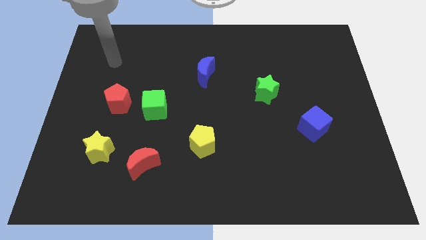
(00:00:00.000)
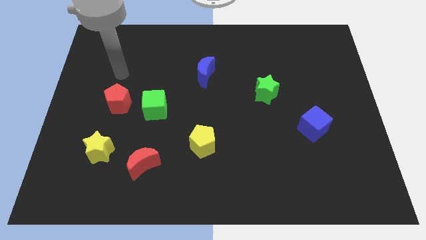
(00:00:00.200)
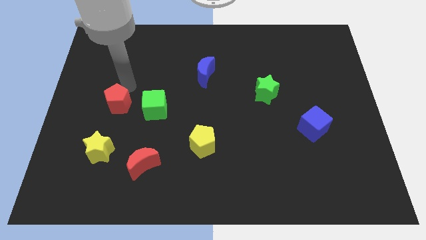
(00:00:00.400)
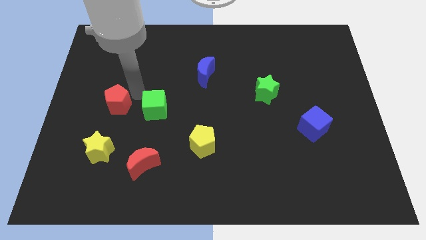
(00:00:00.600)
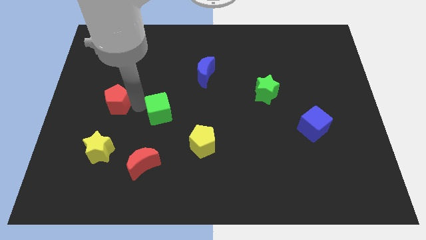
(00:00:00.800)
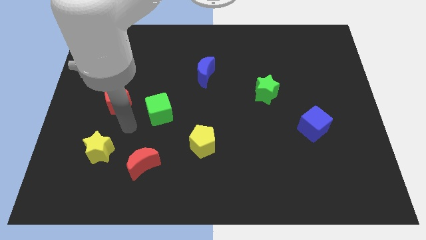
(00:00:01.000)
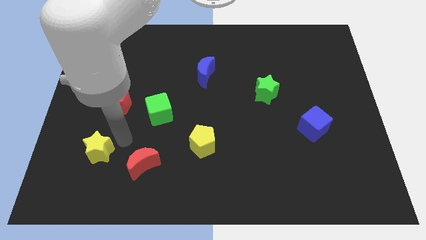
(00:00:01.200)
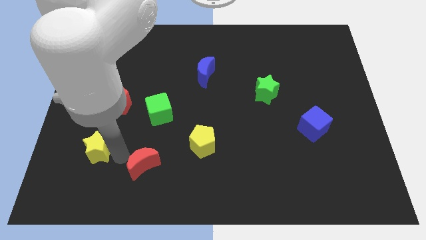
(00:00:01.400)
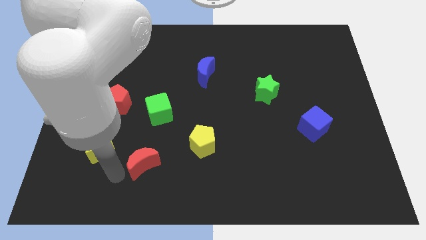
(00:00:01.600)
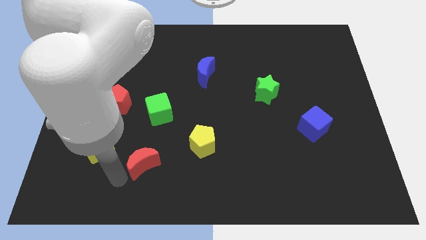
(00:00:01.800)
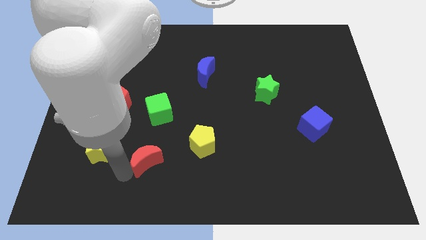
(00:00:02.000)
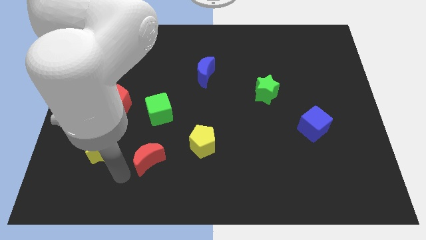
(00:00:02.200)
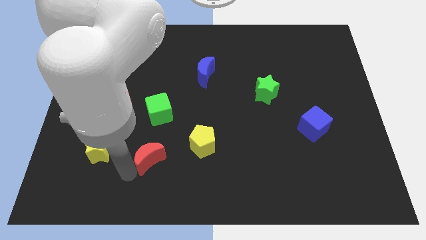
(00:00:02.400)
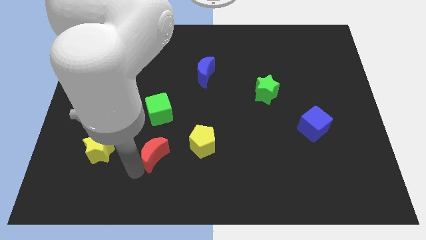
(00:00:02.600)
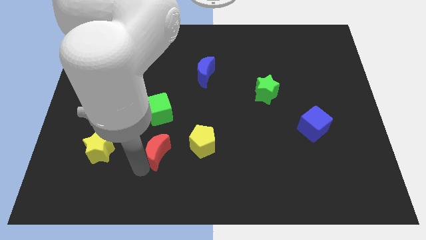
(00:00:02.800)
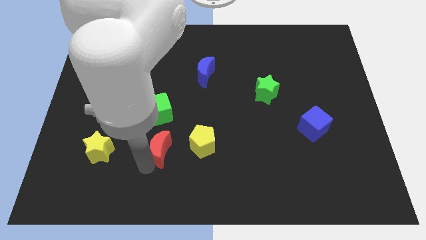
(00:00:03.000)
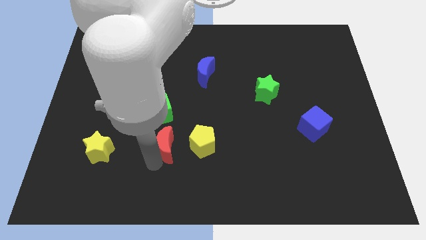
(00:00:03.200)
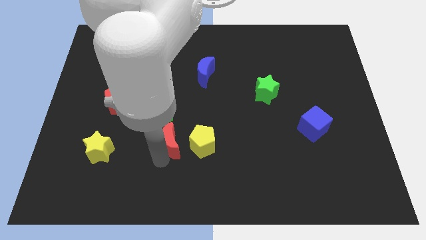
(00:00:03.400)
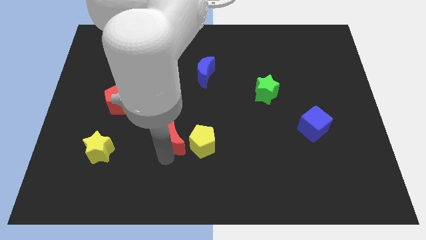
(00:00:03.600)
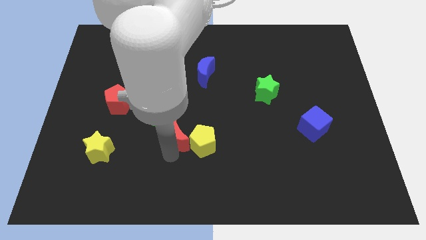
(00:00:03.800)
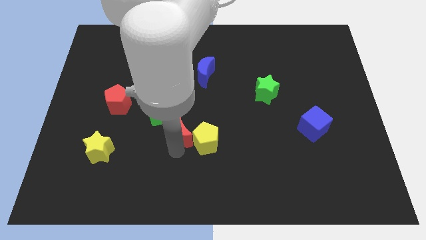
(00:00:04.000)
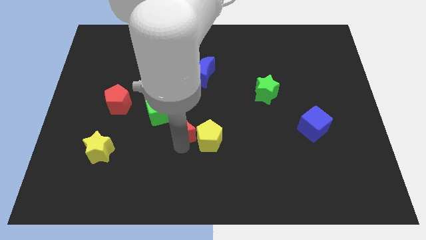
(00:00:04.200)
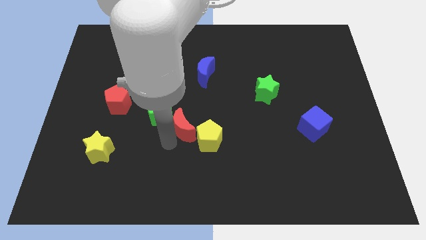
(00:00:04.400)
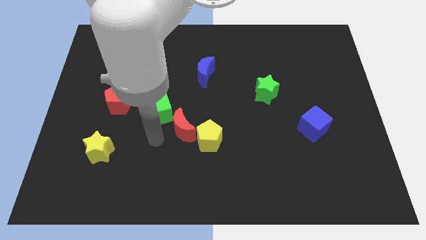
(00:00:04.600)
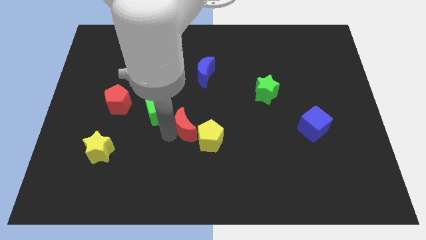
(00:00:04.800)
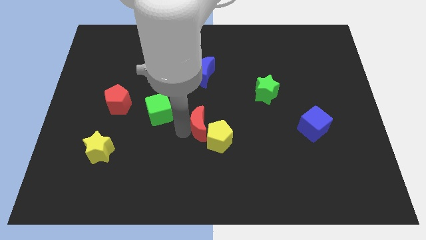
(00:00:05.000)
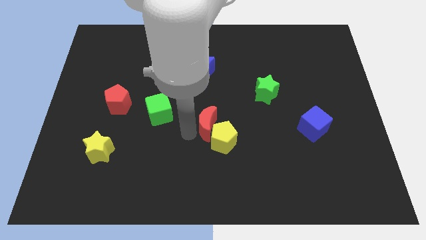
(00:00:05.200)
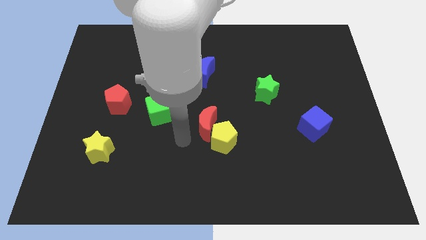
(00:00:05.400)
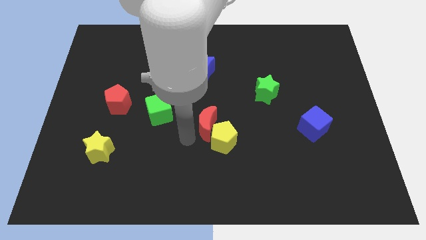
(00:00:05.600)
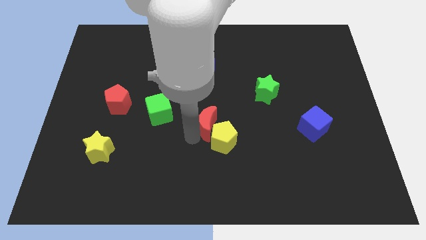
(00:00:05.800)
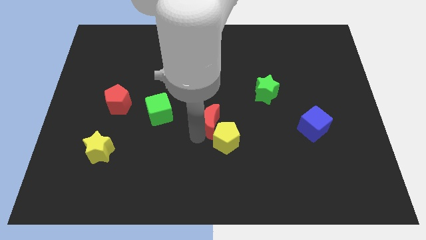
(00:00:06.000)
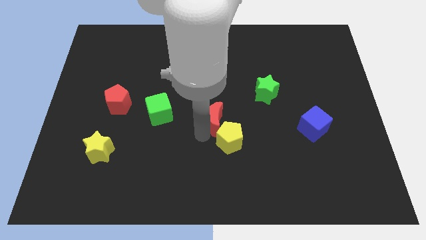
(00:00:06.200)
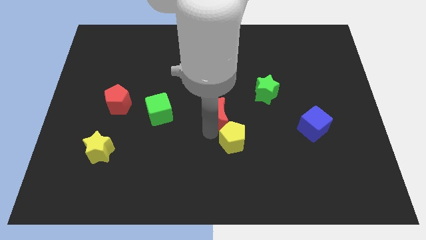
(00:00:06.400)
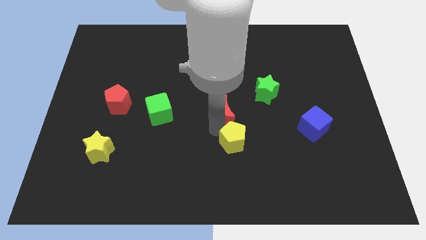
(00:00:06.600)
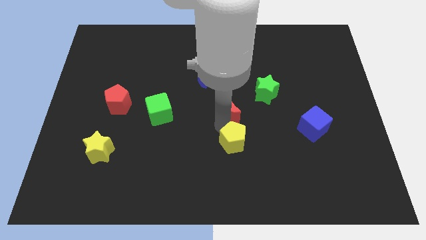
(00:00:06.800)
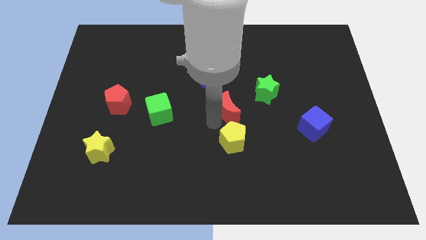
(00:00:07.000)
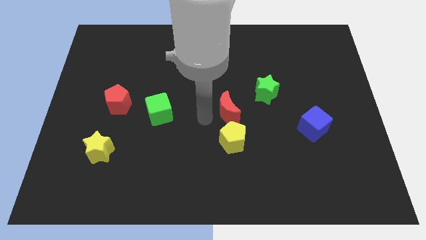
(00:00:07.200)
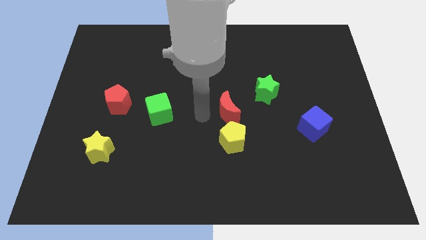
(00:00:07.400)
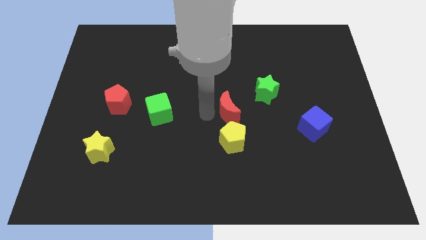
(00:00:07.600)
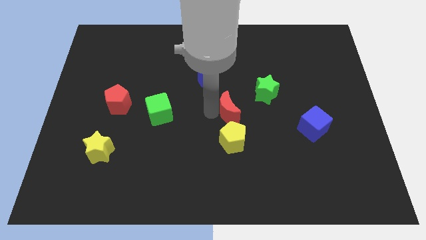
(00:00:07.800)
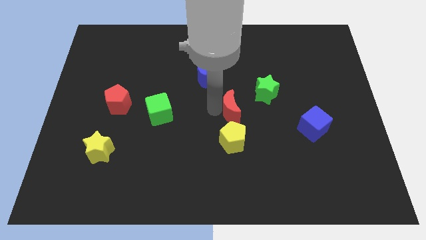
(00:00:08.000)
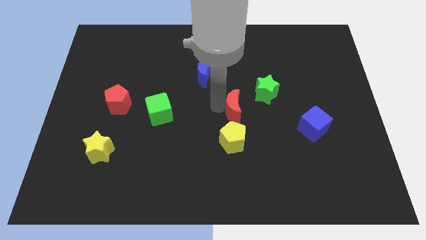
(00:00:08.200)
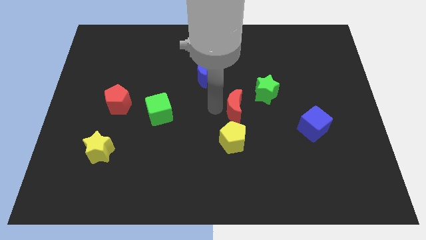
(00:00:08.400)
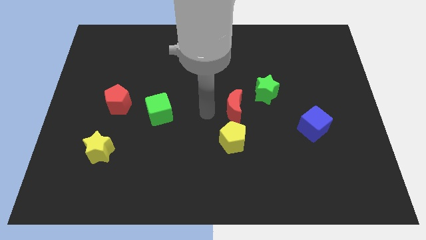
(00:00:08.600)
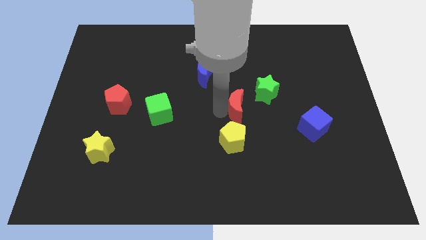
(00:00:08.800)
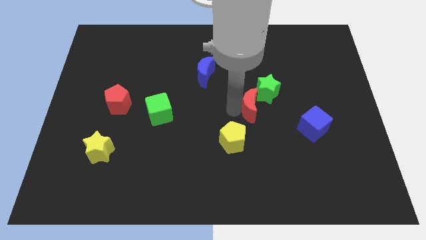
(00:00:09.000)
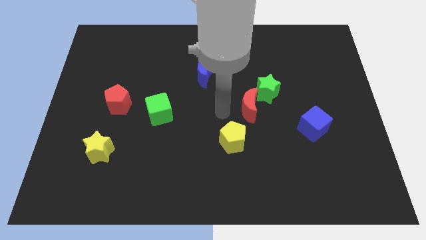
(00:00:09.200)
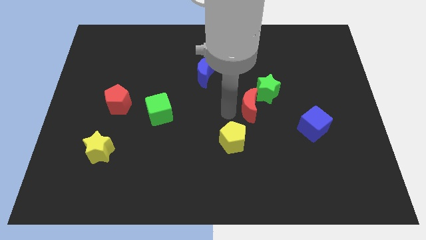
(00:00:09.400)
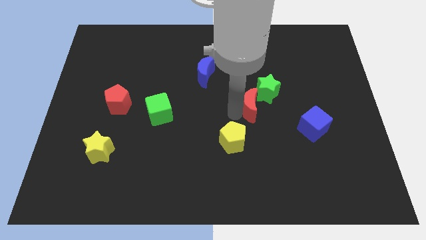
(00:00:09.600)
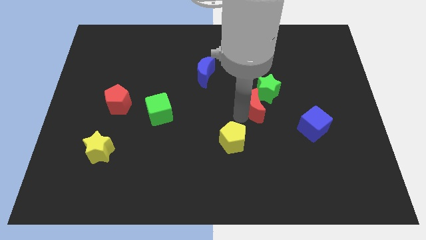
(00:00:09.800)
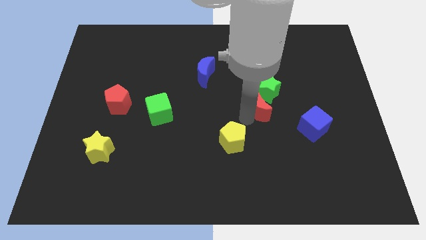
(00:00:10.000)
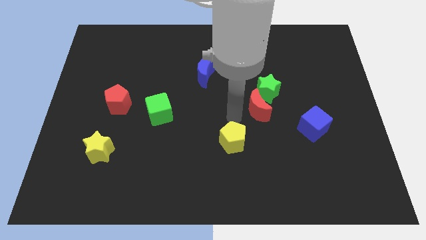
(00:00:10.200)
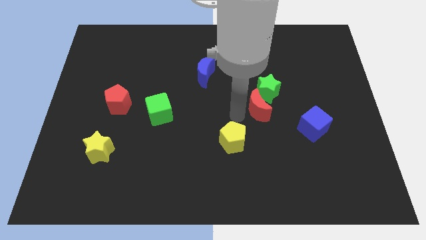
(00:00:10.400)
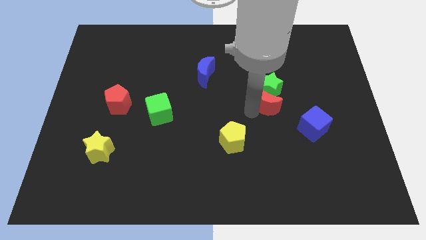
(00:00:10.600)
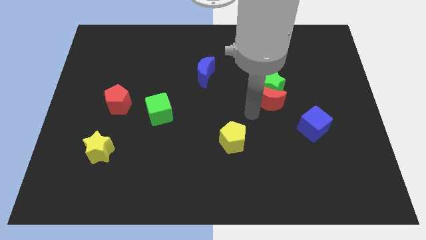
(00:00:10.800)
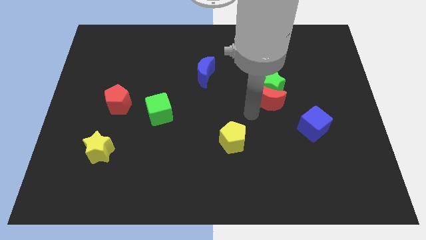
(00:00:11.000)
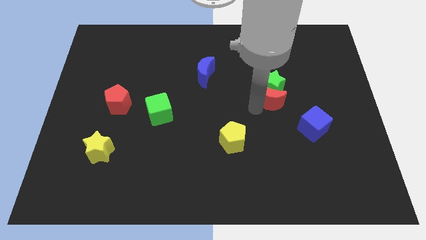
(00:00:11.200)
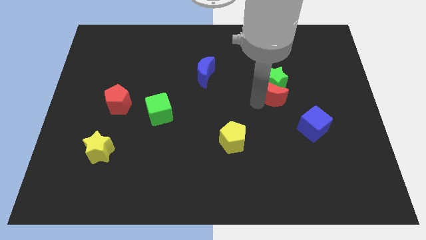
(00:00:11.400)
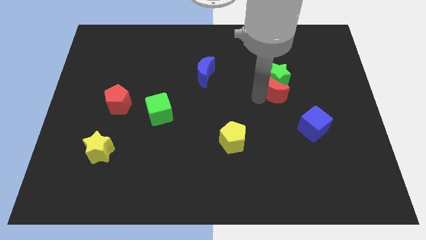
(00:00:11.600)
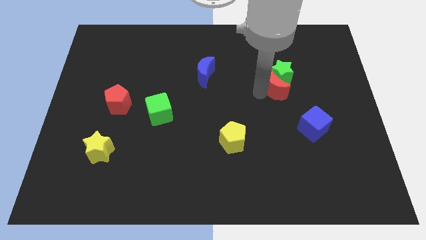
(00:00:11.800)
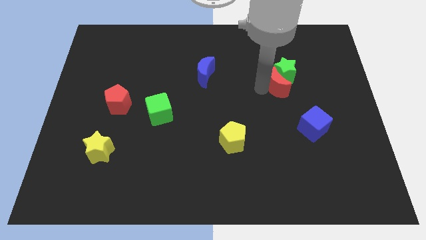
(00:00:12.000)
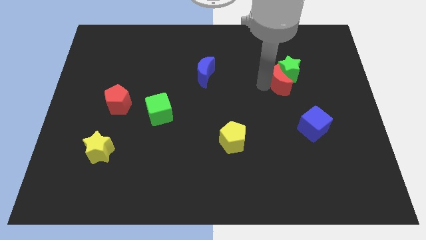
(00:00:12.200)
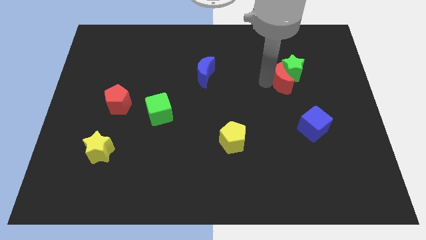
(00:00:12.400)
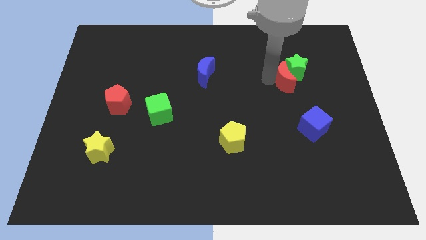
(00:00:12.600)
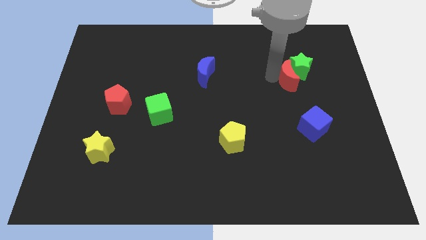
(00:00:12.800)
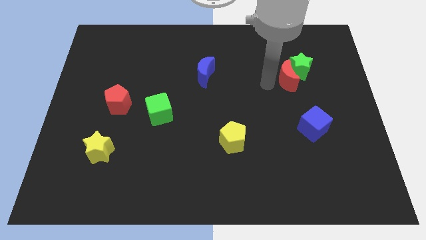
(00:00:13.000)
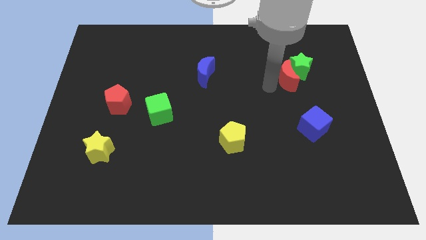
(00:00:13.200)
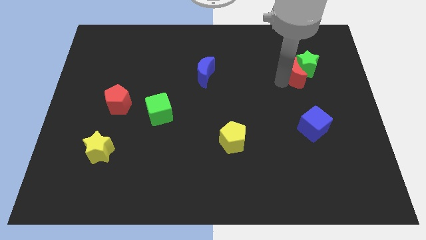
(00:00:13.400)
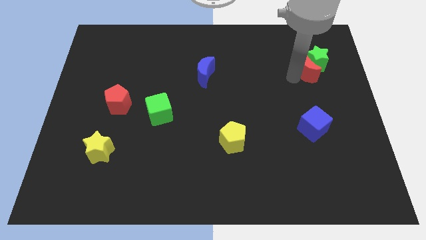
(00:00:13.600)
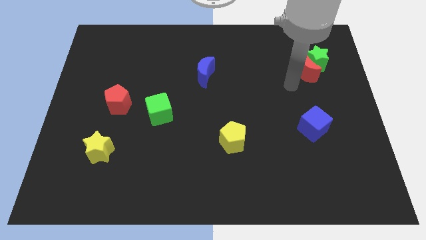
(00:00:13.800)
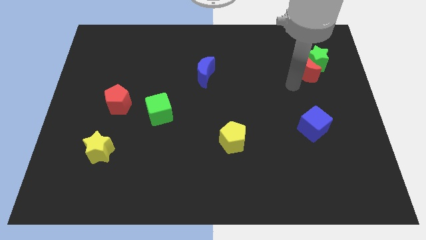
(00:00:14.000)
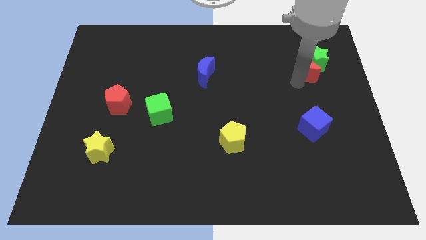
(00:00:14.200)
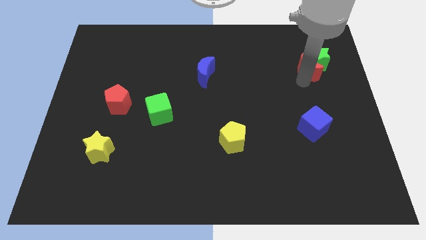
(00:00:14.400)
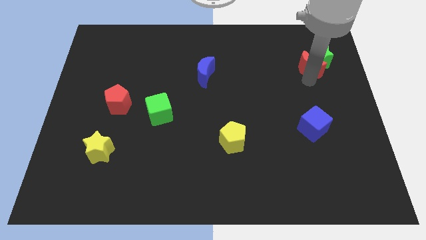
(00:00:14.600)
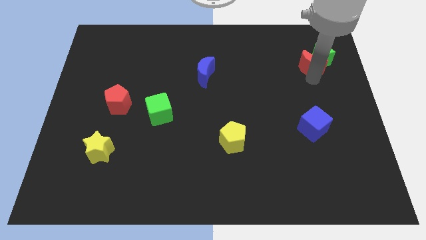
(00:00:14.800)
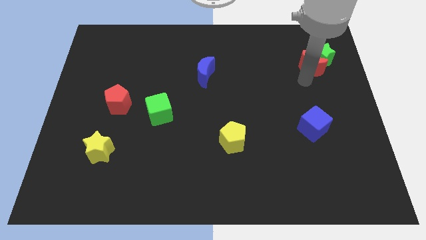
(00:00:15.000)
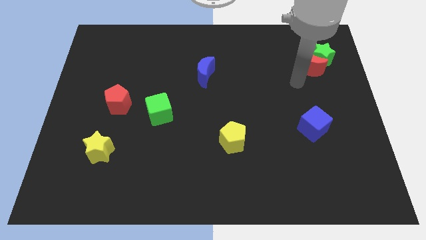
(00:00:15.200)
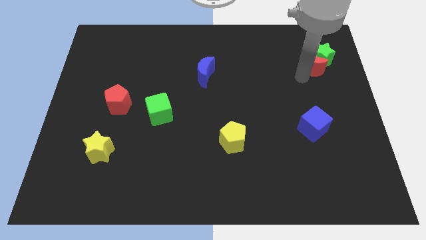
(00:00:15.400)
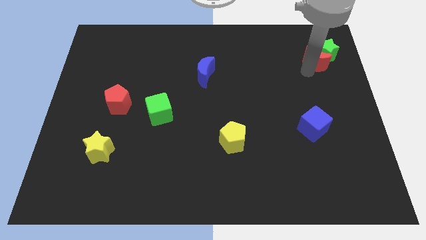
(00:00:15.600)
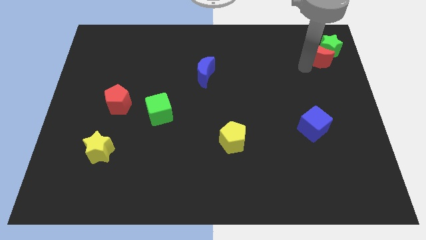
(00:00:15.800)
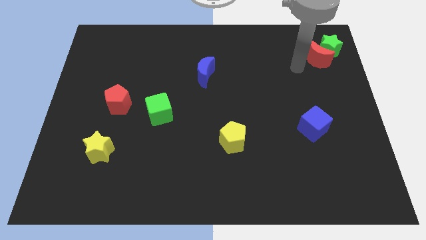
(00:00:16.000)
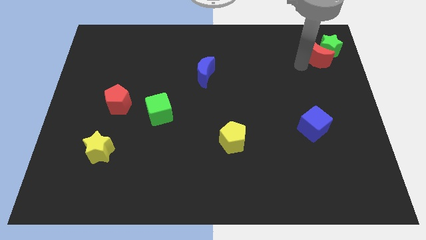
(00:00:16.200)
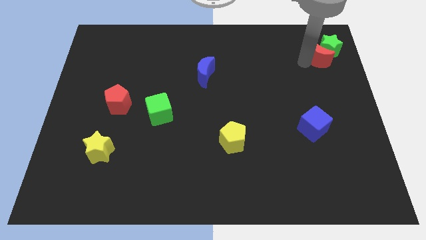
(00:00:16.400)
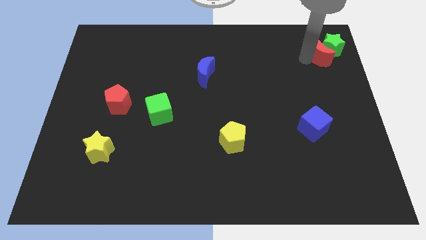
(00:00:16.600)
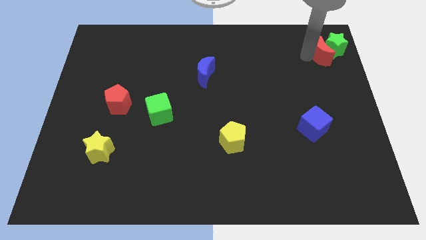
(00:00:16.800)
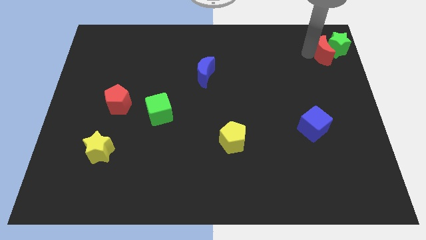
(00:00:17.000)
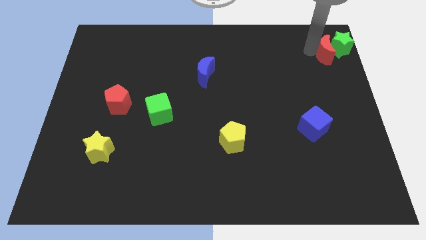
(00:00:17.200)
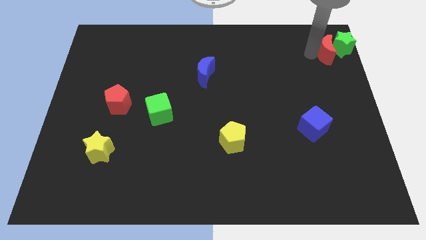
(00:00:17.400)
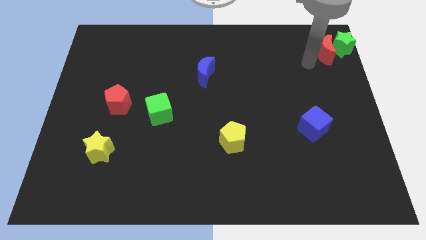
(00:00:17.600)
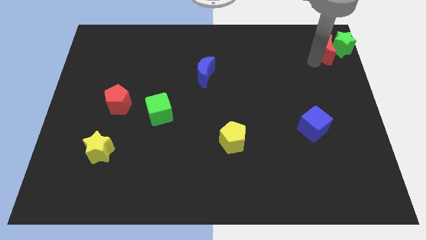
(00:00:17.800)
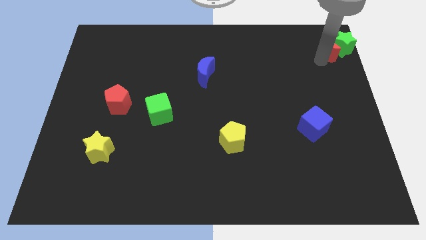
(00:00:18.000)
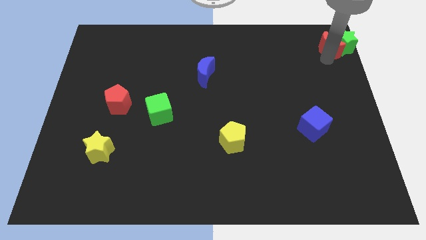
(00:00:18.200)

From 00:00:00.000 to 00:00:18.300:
move the red moon to the top right of the board
